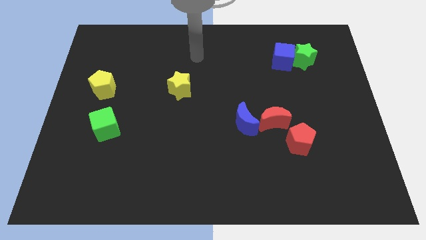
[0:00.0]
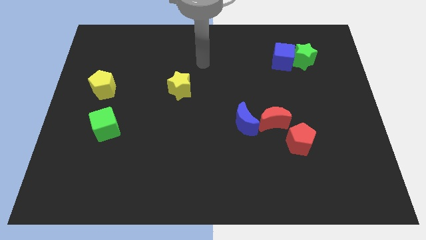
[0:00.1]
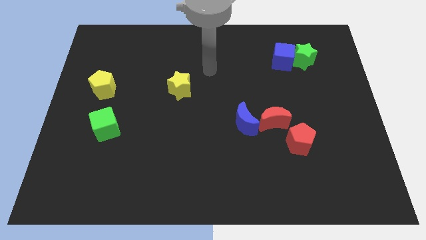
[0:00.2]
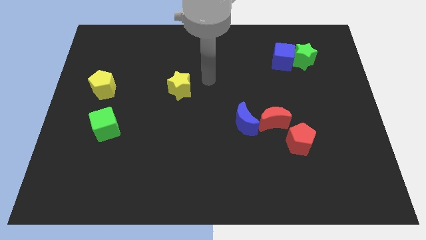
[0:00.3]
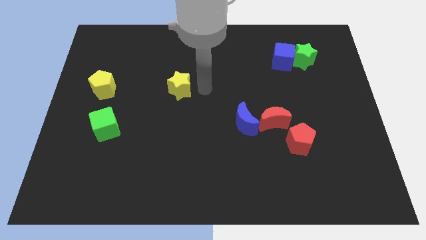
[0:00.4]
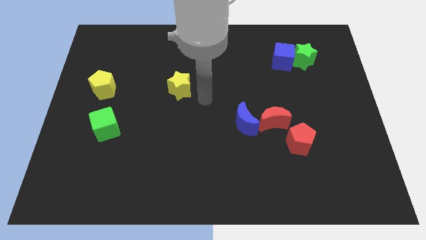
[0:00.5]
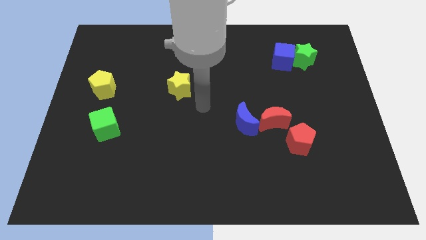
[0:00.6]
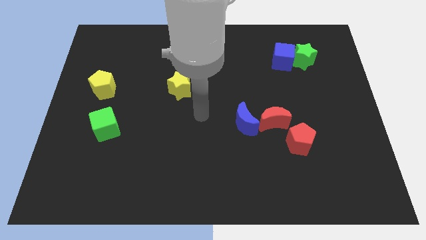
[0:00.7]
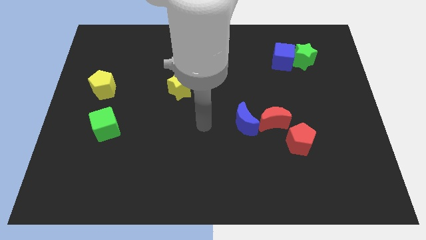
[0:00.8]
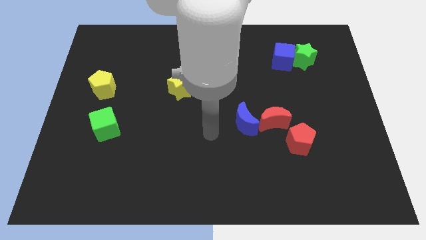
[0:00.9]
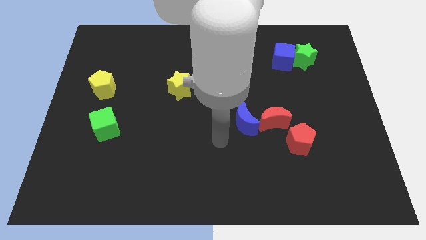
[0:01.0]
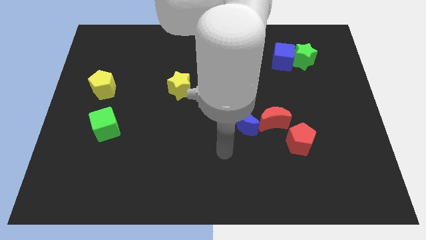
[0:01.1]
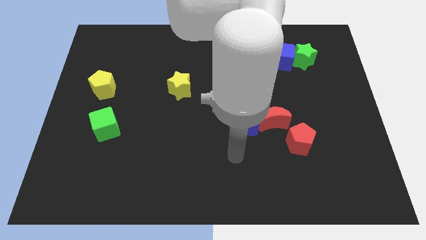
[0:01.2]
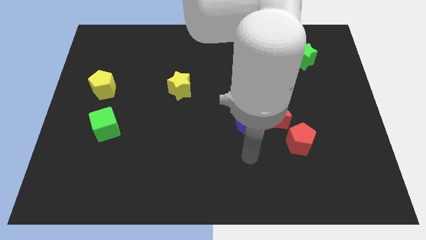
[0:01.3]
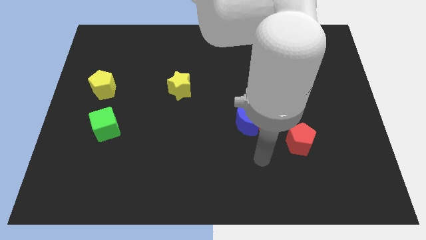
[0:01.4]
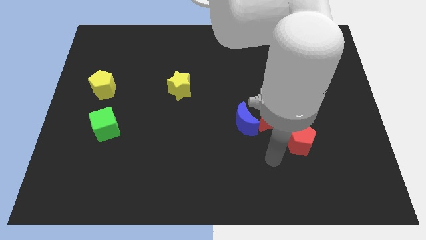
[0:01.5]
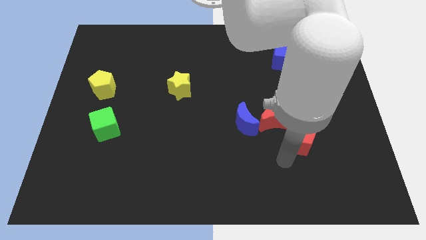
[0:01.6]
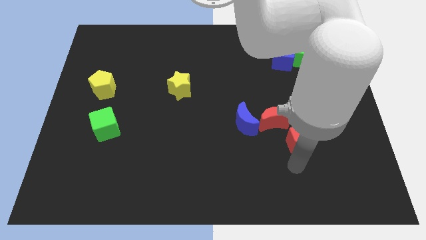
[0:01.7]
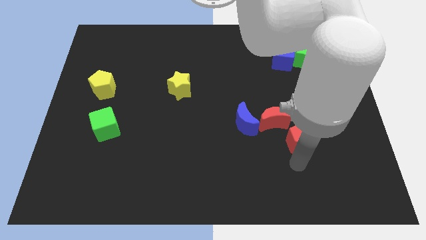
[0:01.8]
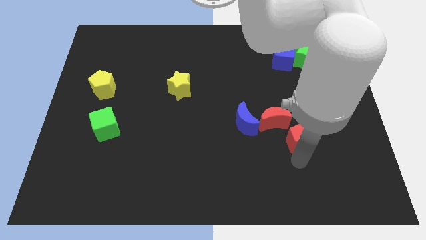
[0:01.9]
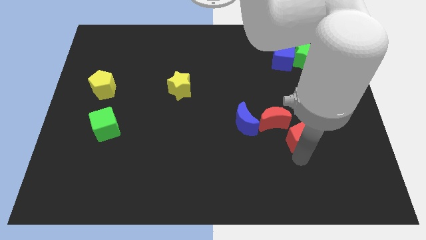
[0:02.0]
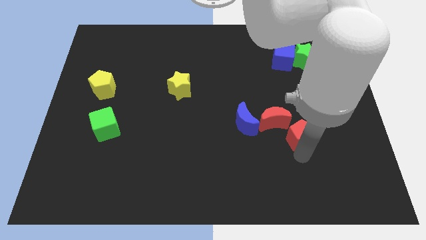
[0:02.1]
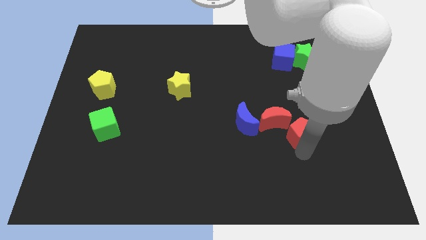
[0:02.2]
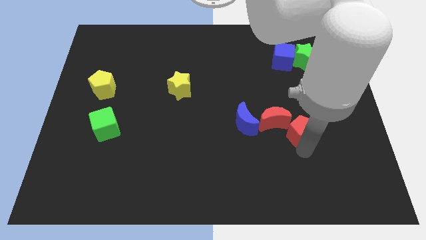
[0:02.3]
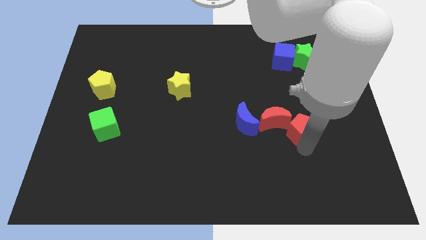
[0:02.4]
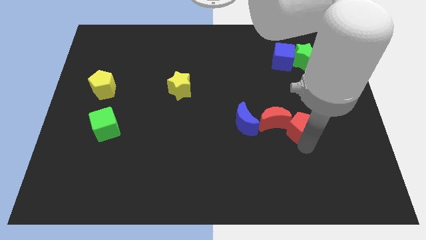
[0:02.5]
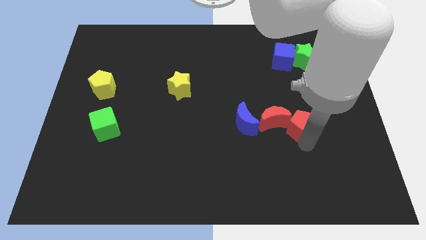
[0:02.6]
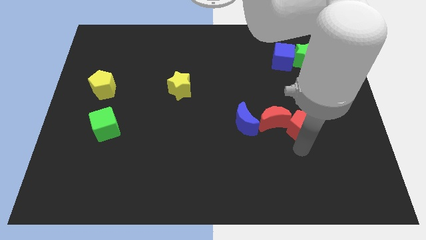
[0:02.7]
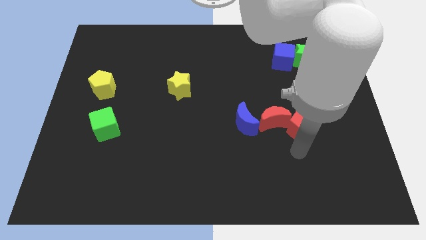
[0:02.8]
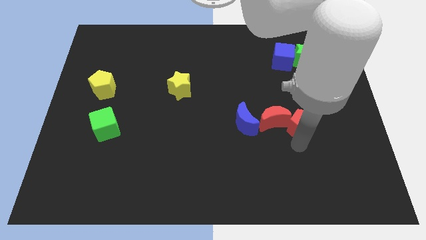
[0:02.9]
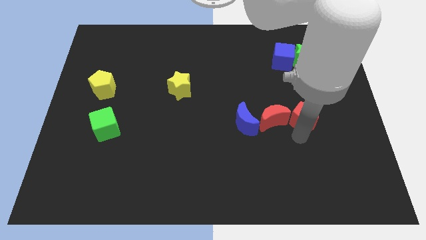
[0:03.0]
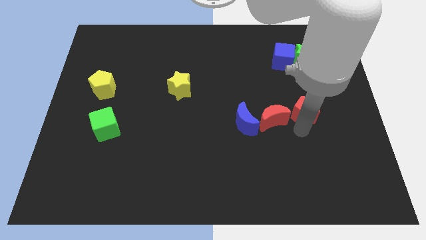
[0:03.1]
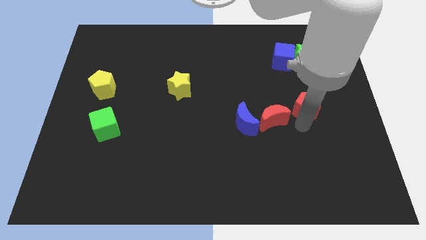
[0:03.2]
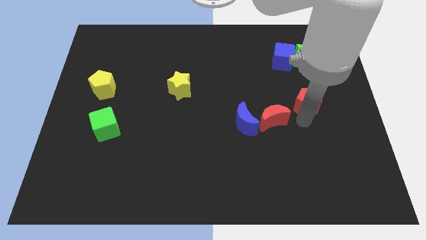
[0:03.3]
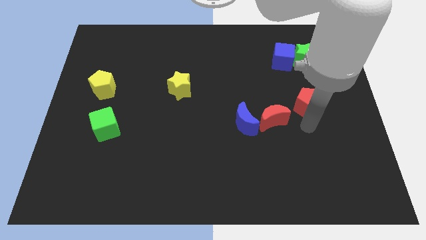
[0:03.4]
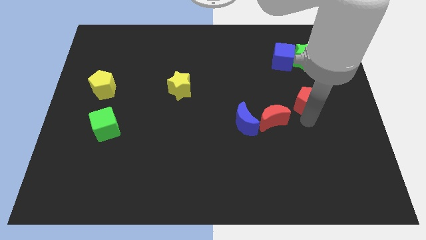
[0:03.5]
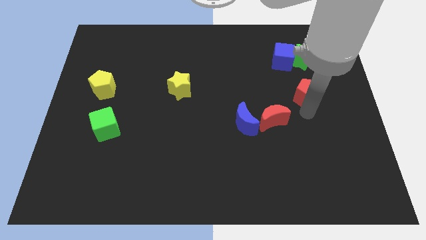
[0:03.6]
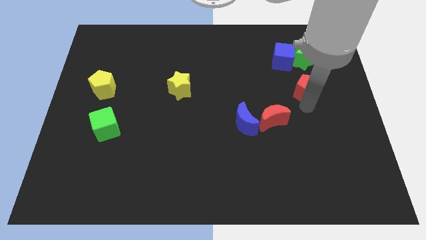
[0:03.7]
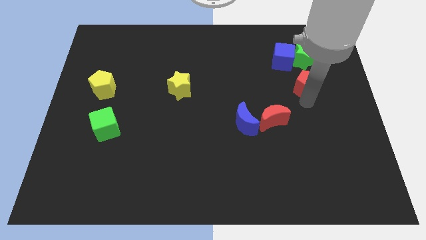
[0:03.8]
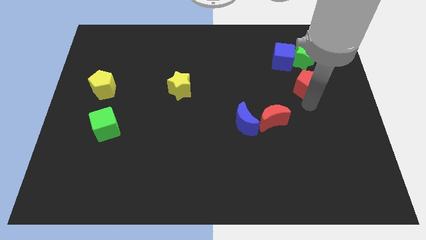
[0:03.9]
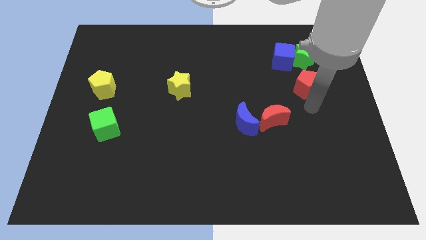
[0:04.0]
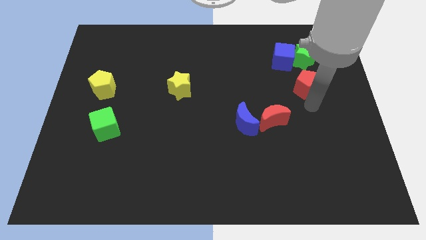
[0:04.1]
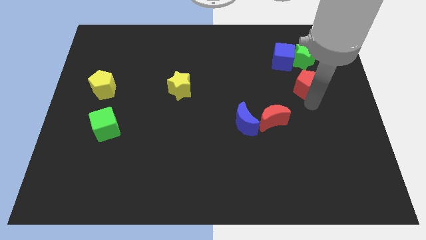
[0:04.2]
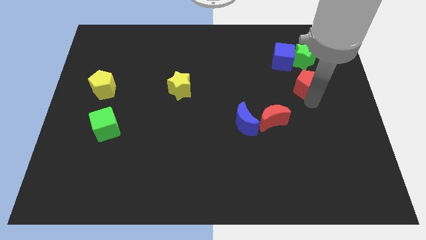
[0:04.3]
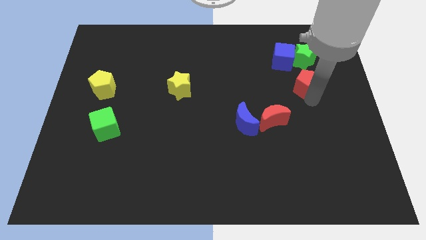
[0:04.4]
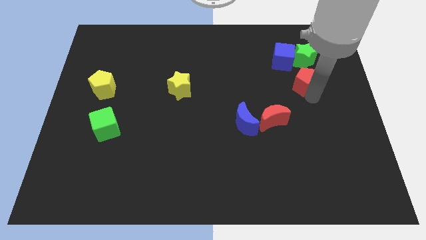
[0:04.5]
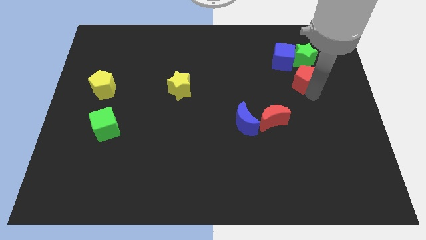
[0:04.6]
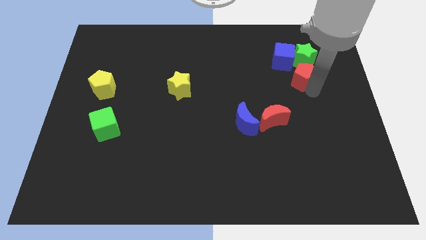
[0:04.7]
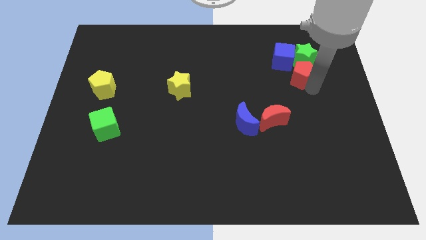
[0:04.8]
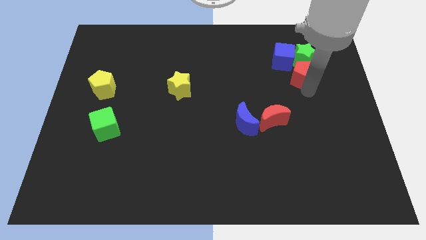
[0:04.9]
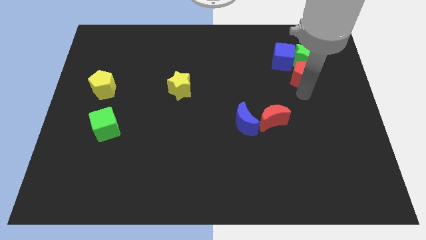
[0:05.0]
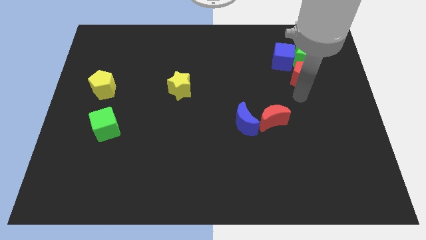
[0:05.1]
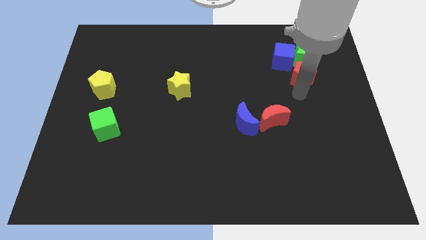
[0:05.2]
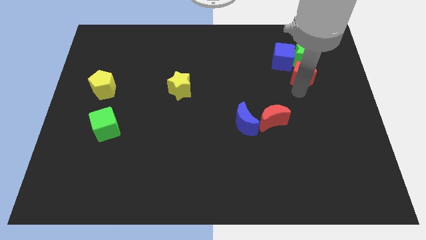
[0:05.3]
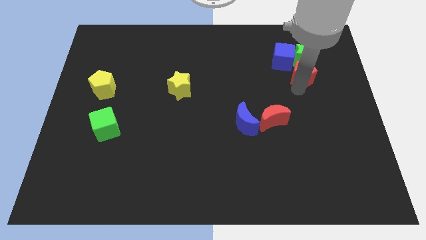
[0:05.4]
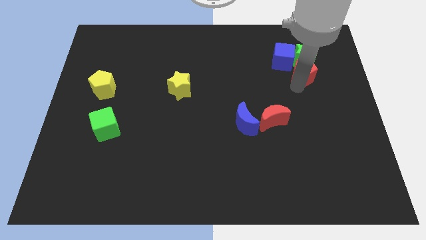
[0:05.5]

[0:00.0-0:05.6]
put the red pentagon to the green star

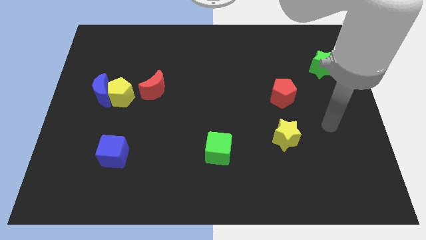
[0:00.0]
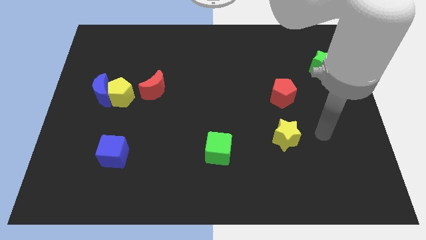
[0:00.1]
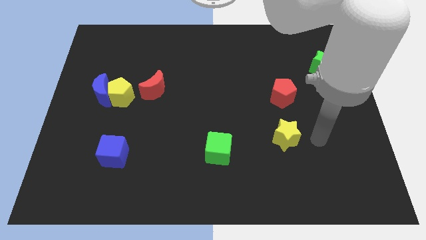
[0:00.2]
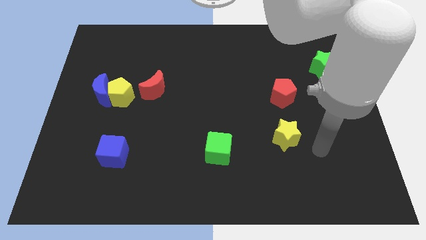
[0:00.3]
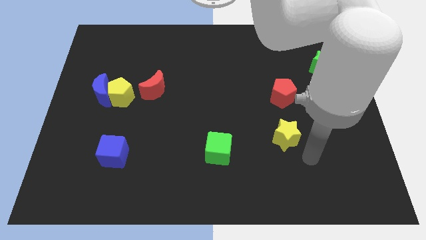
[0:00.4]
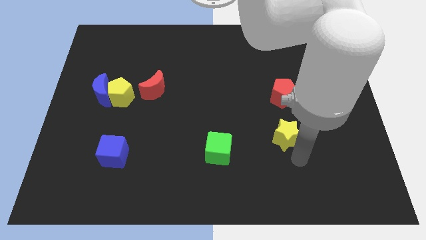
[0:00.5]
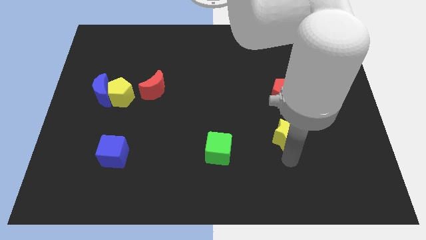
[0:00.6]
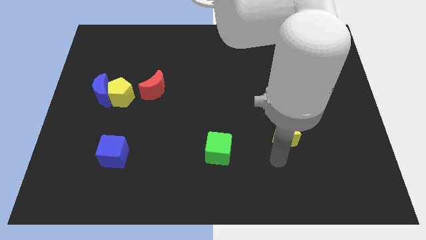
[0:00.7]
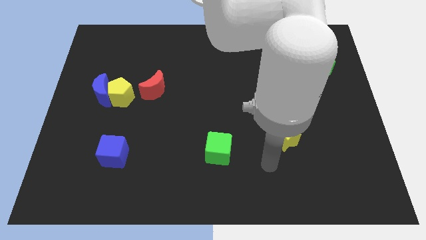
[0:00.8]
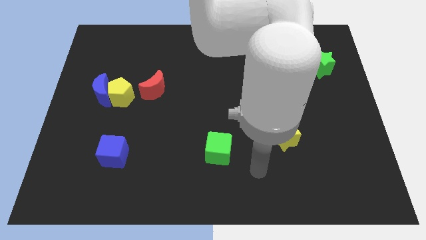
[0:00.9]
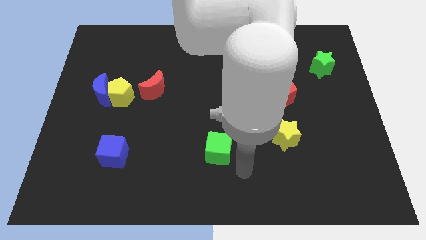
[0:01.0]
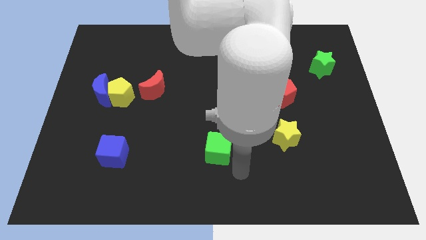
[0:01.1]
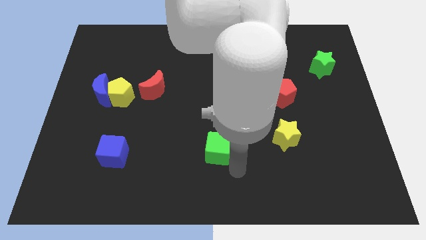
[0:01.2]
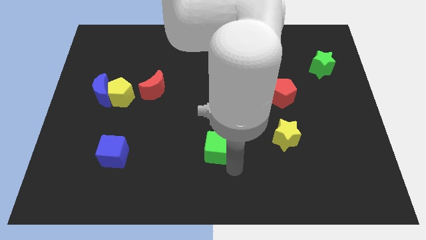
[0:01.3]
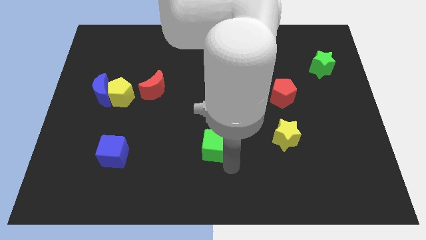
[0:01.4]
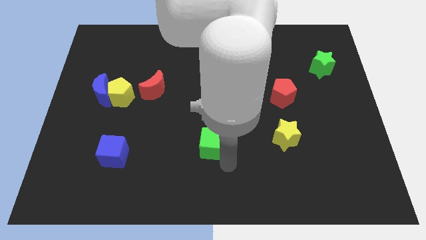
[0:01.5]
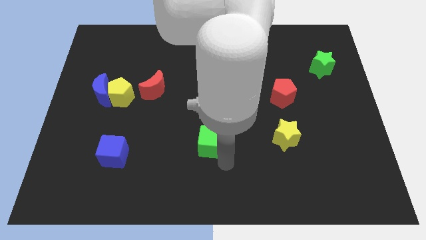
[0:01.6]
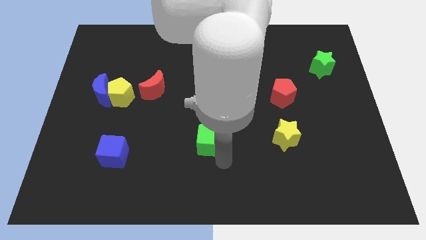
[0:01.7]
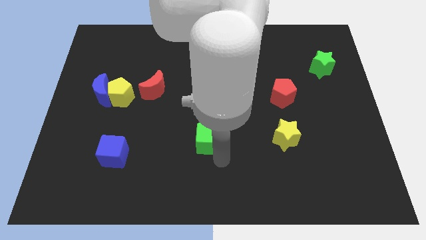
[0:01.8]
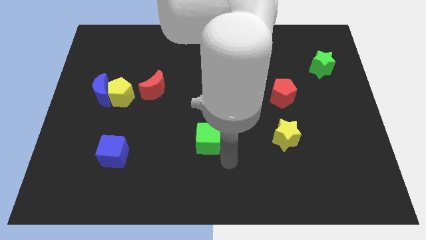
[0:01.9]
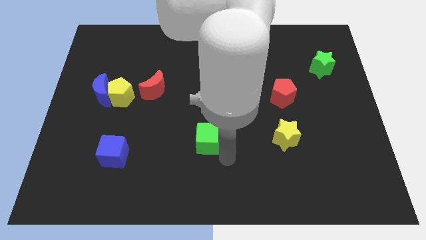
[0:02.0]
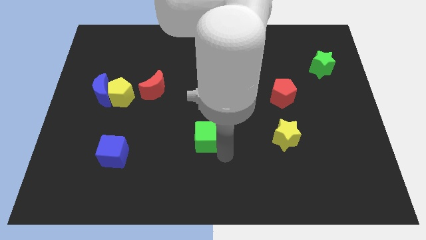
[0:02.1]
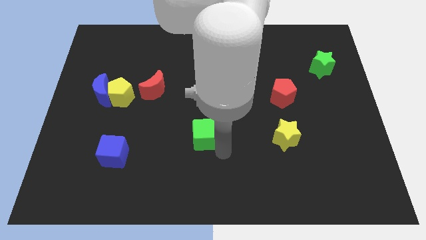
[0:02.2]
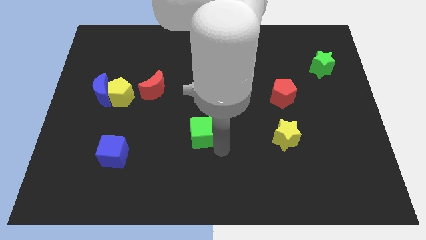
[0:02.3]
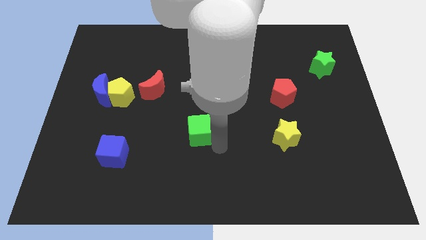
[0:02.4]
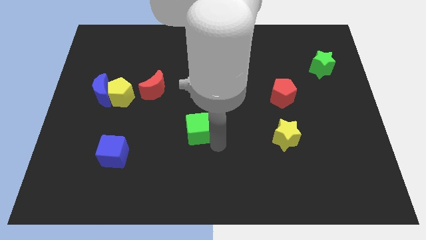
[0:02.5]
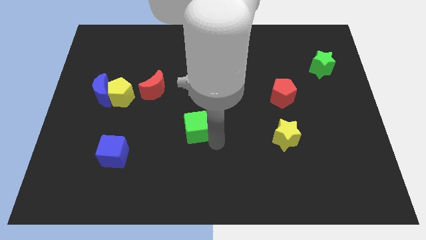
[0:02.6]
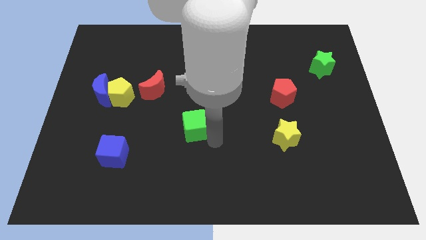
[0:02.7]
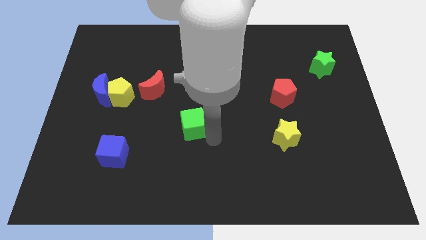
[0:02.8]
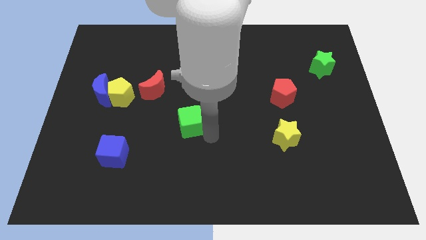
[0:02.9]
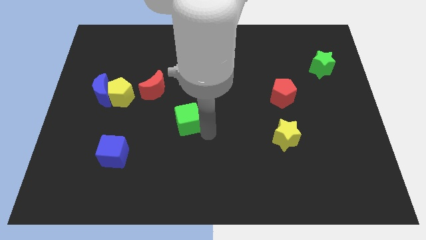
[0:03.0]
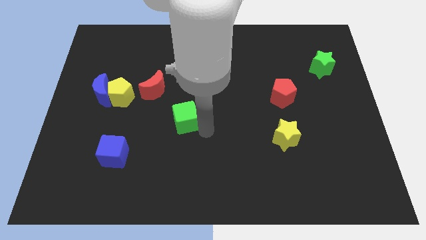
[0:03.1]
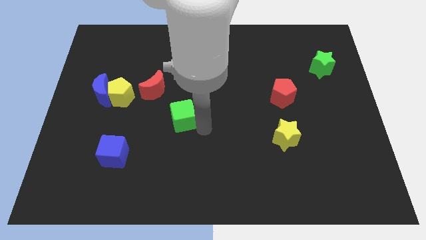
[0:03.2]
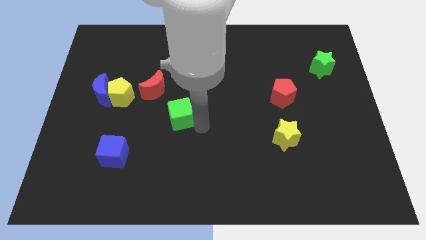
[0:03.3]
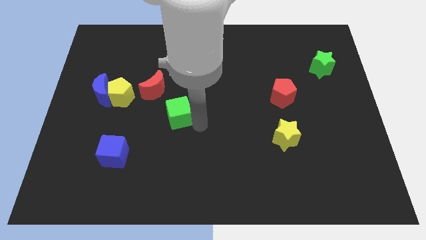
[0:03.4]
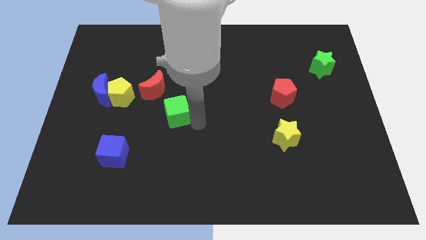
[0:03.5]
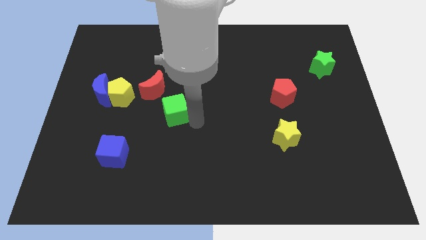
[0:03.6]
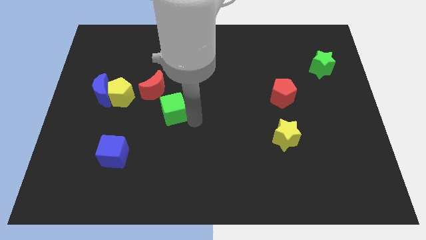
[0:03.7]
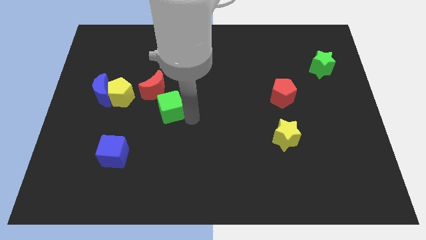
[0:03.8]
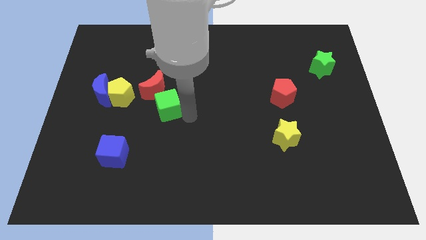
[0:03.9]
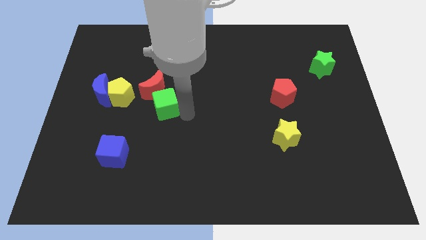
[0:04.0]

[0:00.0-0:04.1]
push the green cube next to the red moon
